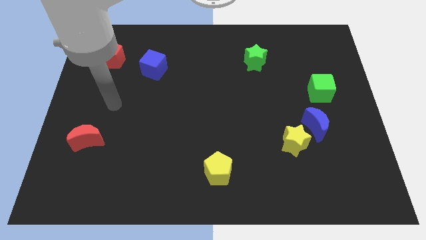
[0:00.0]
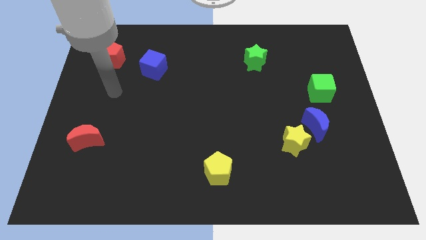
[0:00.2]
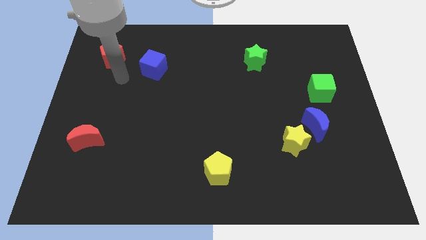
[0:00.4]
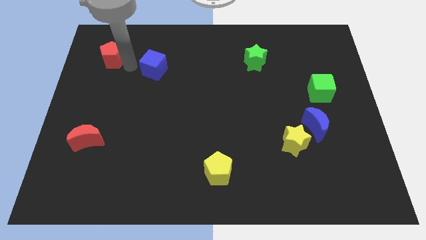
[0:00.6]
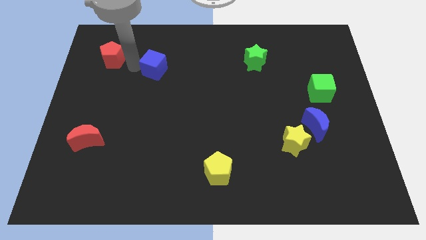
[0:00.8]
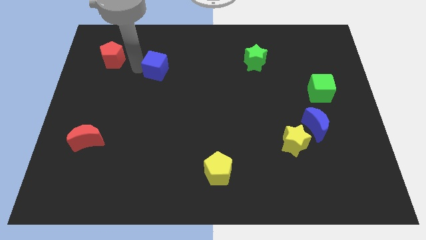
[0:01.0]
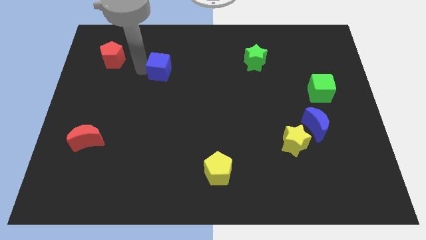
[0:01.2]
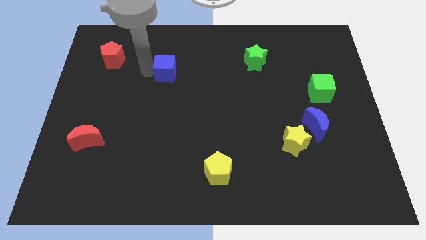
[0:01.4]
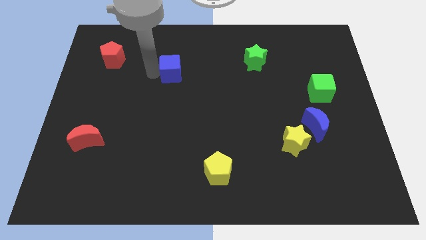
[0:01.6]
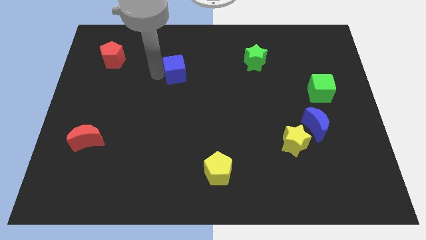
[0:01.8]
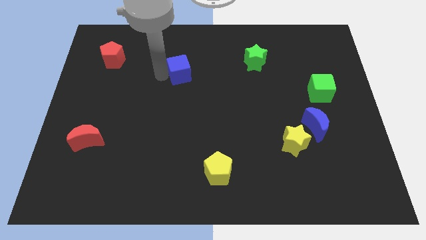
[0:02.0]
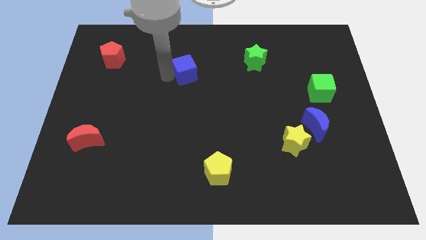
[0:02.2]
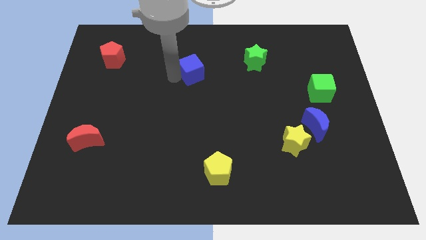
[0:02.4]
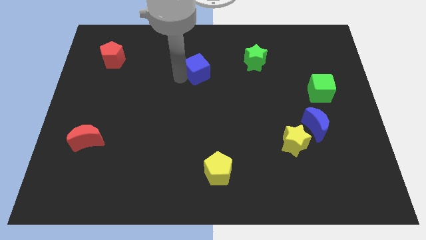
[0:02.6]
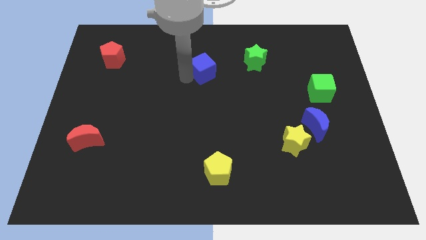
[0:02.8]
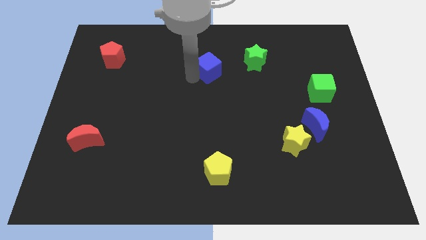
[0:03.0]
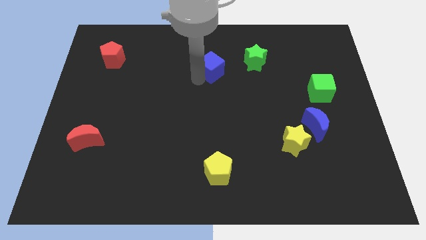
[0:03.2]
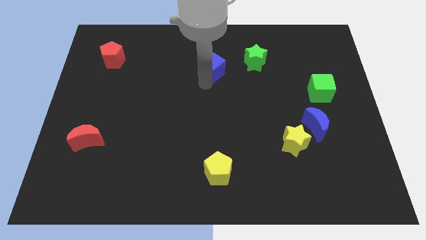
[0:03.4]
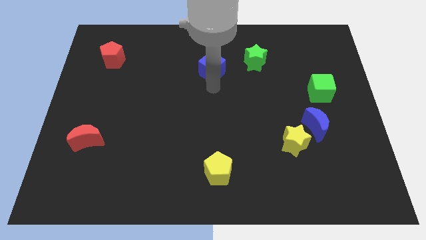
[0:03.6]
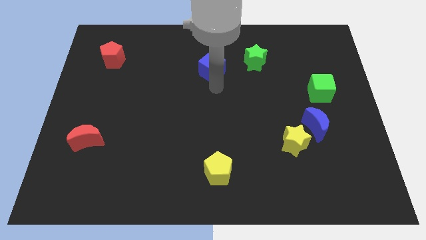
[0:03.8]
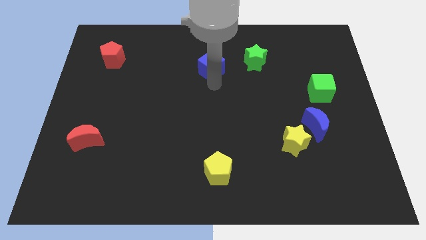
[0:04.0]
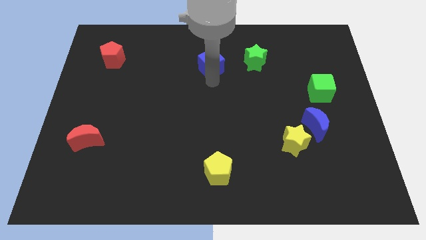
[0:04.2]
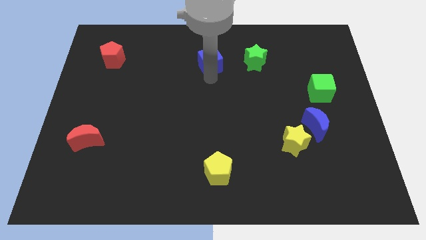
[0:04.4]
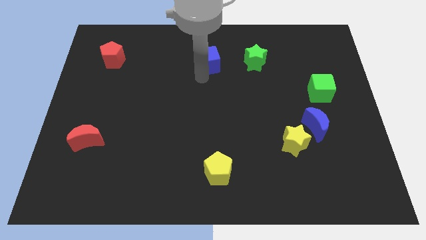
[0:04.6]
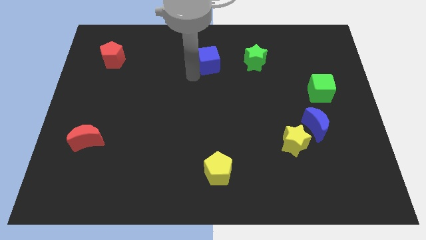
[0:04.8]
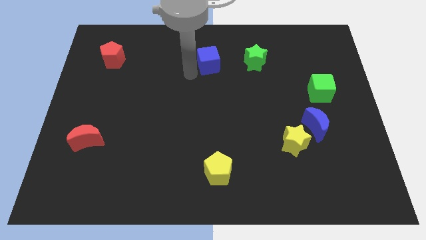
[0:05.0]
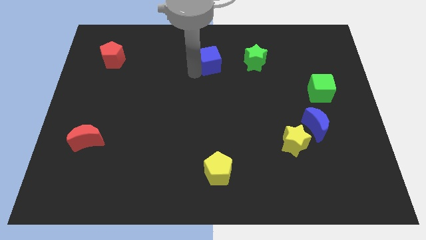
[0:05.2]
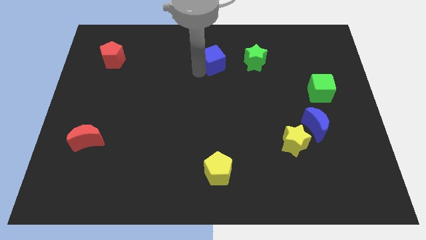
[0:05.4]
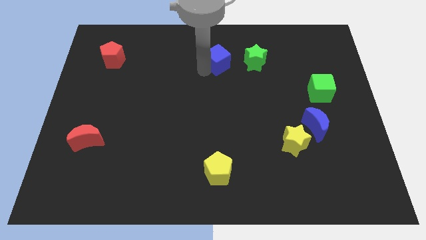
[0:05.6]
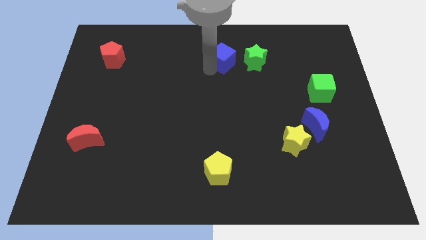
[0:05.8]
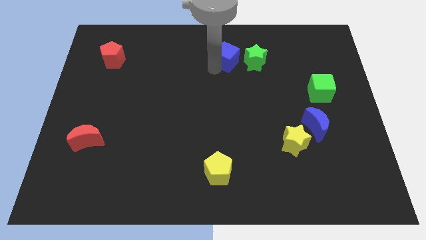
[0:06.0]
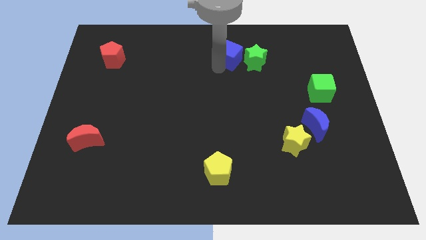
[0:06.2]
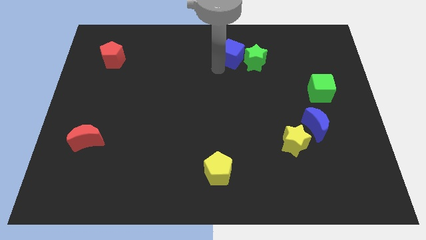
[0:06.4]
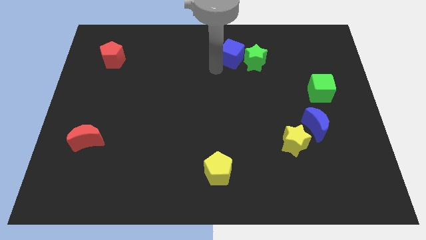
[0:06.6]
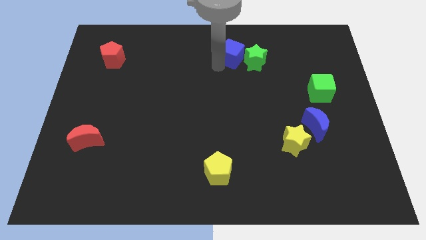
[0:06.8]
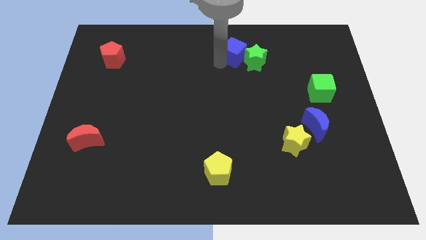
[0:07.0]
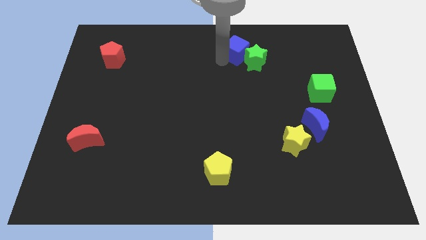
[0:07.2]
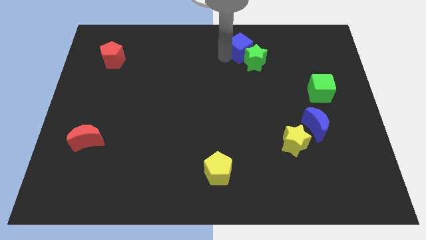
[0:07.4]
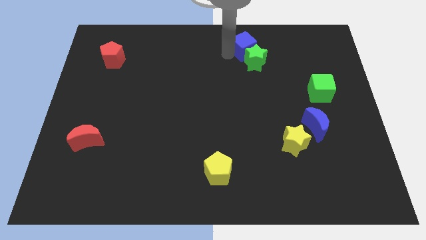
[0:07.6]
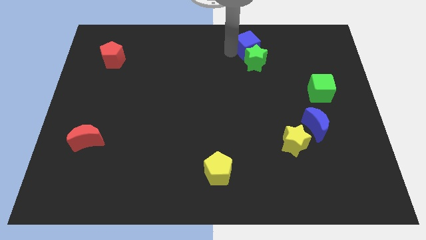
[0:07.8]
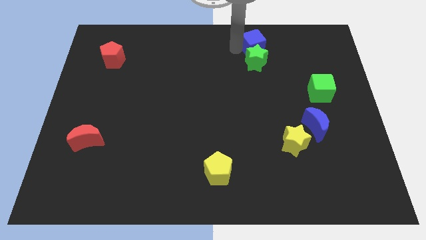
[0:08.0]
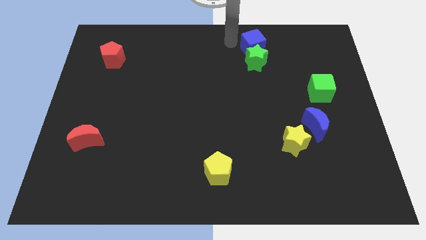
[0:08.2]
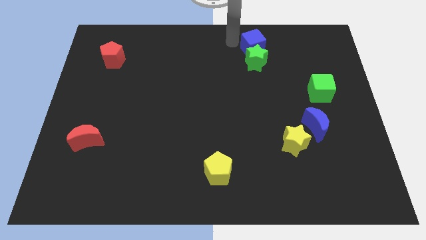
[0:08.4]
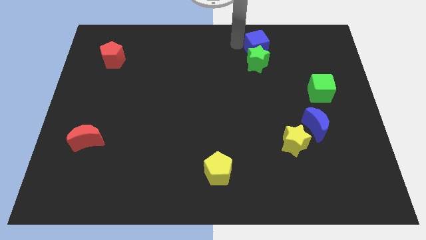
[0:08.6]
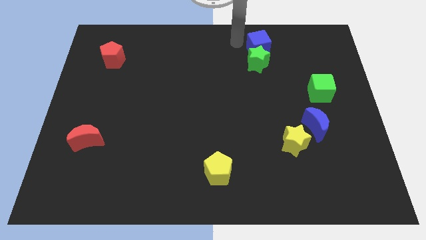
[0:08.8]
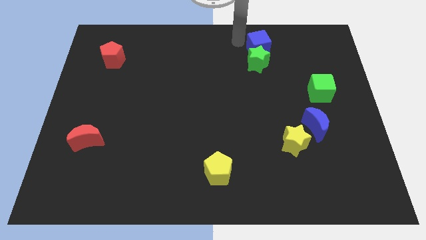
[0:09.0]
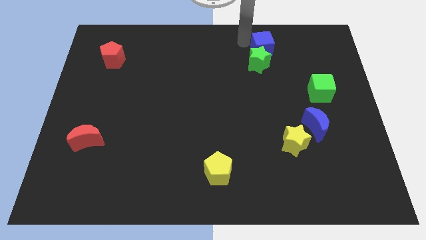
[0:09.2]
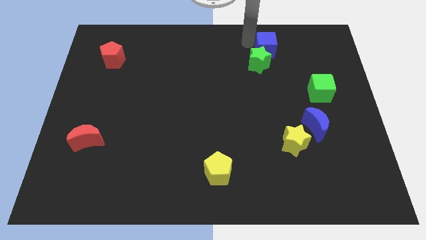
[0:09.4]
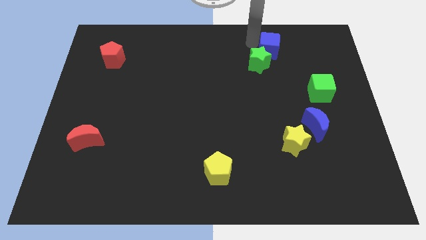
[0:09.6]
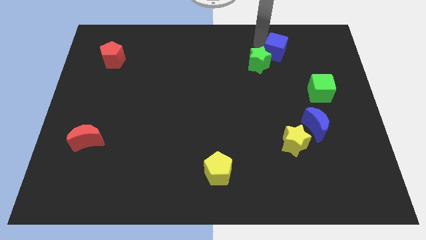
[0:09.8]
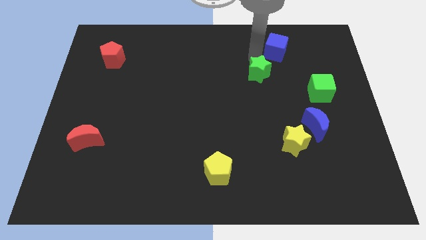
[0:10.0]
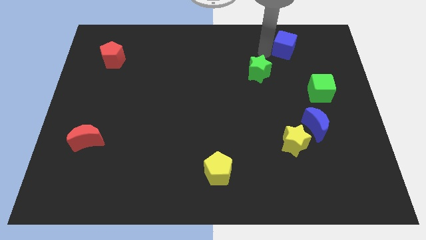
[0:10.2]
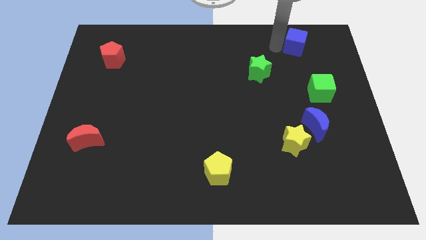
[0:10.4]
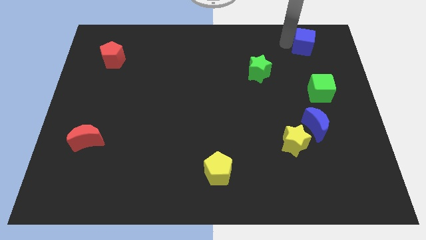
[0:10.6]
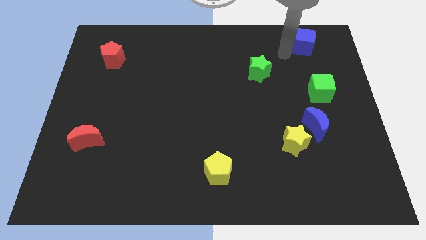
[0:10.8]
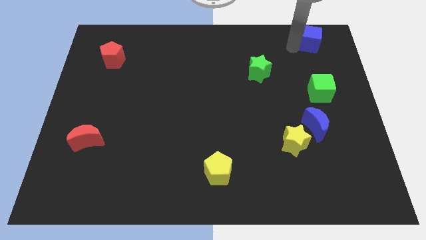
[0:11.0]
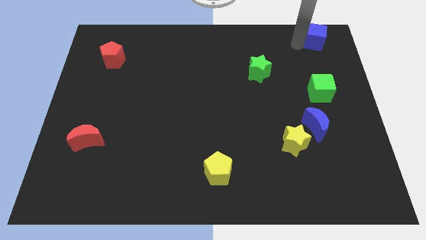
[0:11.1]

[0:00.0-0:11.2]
put the blue cube to the top right of the board
